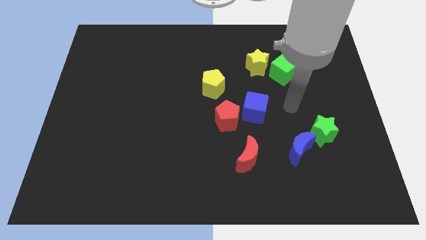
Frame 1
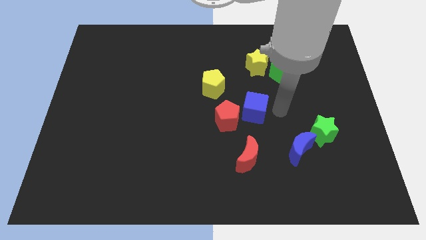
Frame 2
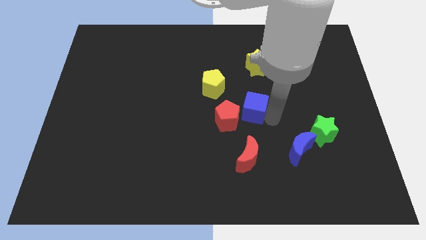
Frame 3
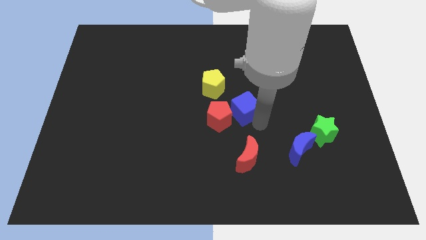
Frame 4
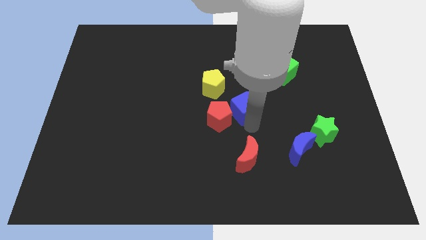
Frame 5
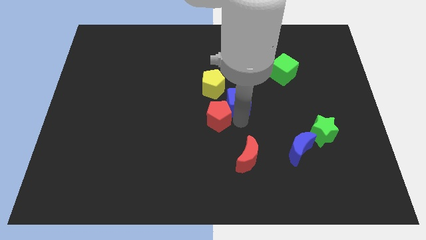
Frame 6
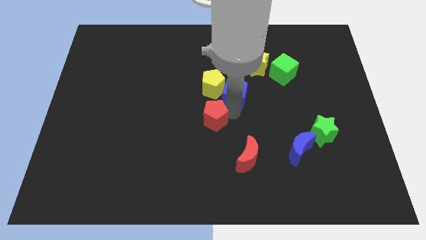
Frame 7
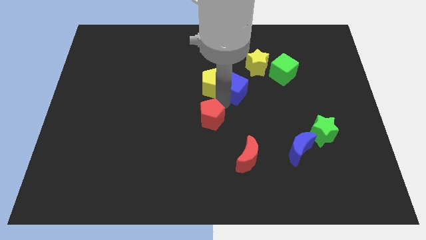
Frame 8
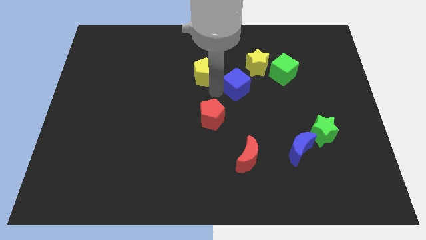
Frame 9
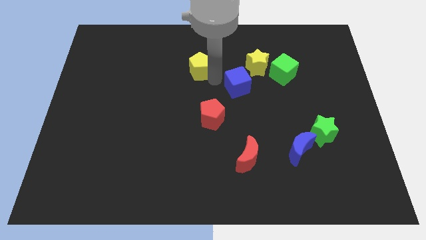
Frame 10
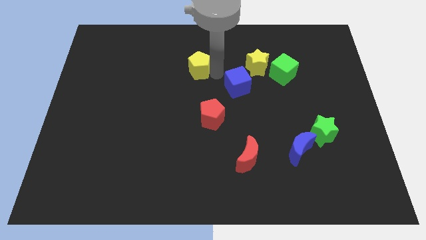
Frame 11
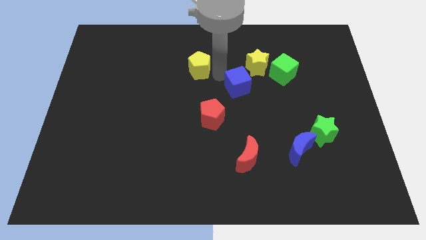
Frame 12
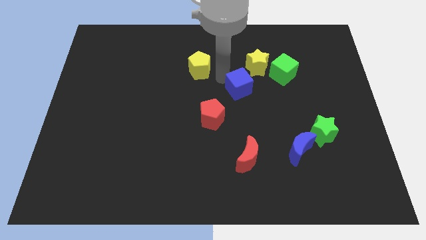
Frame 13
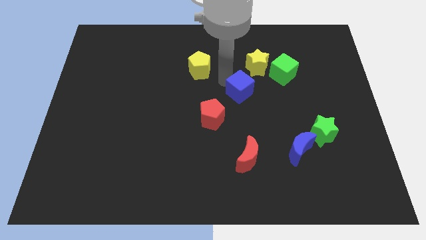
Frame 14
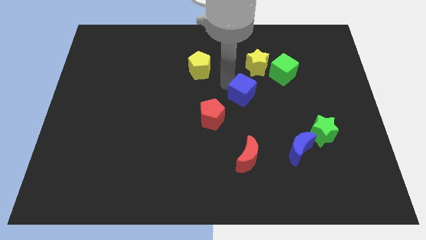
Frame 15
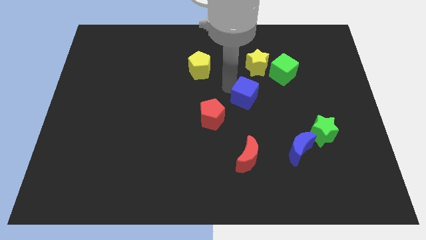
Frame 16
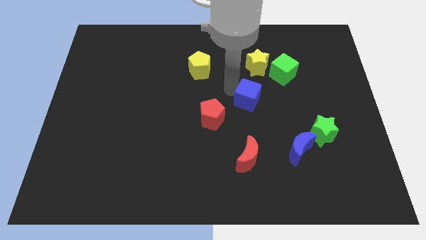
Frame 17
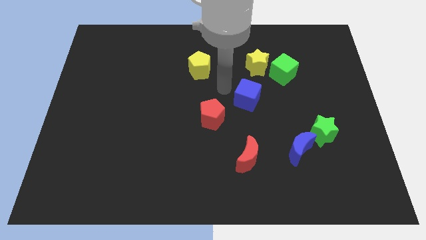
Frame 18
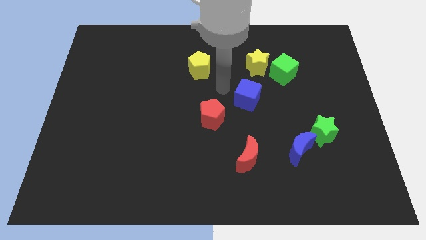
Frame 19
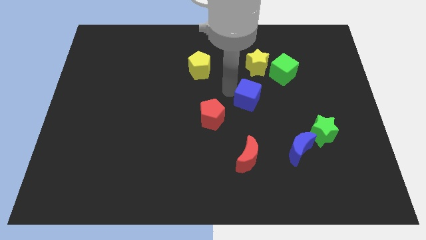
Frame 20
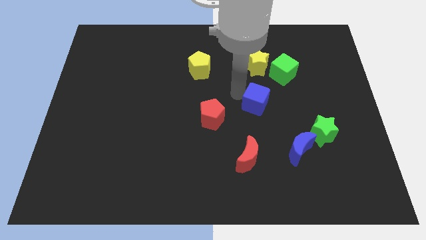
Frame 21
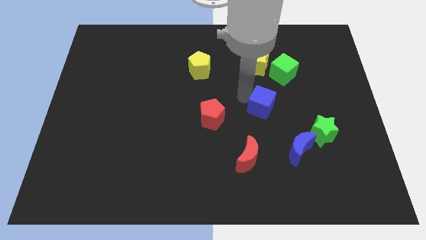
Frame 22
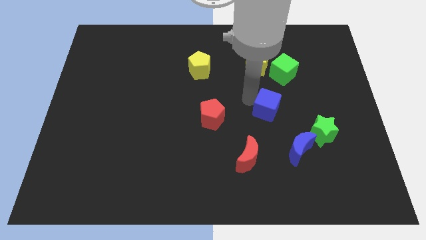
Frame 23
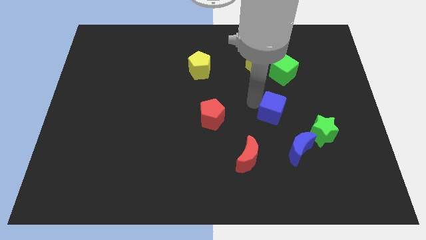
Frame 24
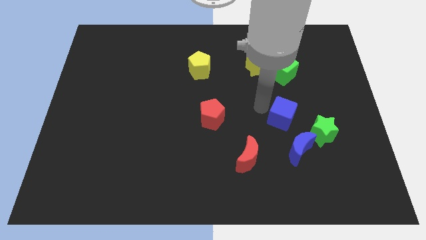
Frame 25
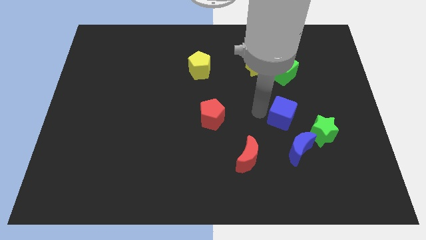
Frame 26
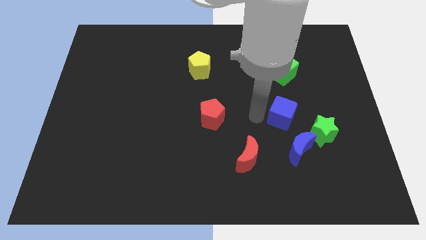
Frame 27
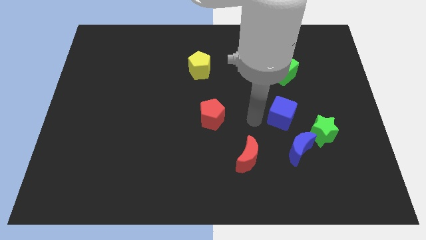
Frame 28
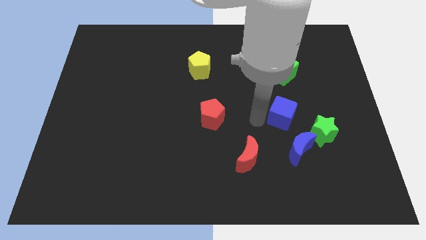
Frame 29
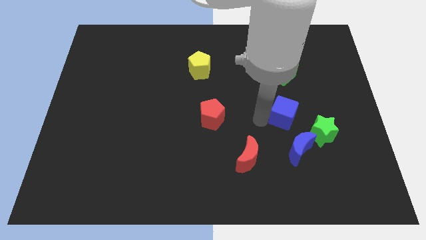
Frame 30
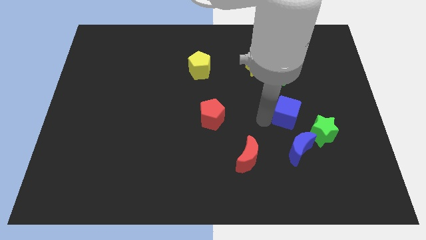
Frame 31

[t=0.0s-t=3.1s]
slide the blue cube slightly right

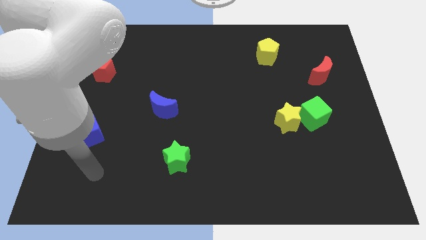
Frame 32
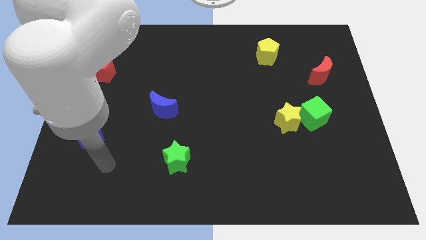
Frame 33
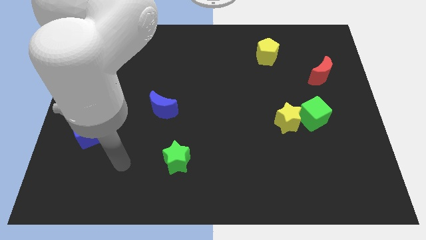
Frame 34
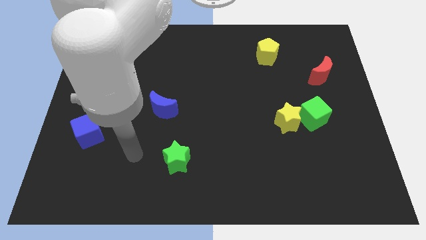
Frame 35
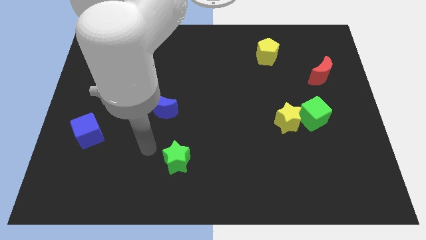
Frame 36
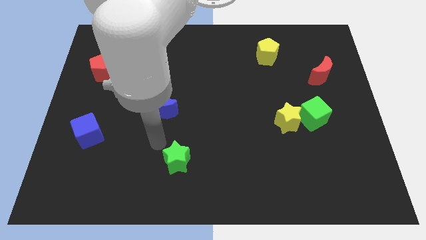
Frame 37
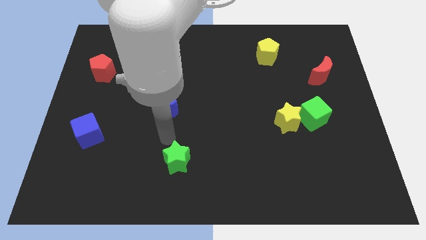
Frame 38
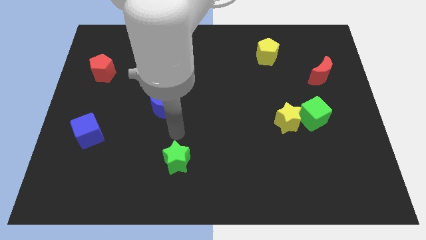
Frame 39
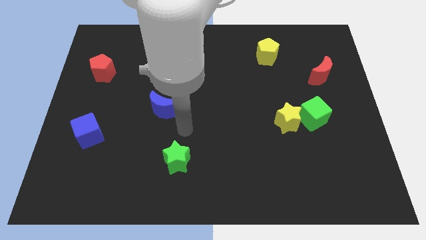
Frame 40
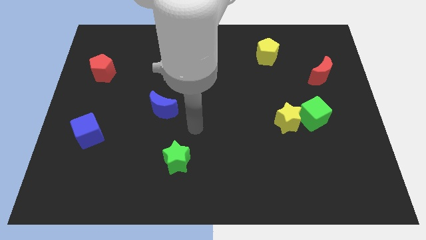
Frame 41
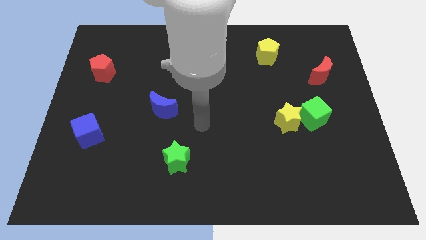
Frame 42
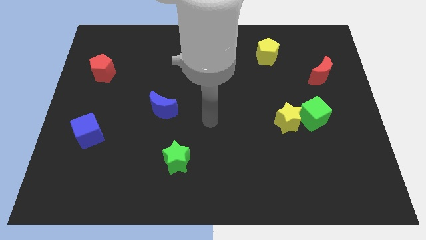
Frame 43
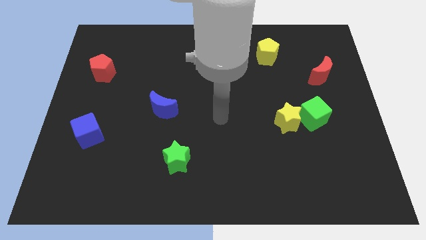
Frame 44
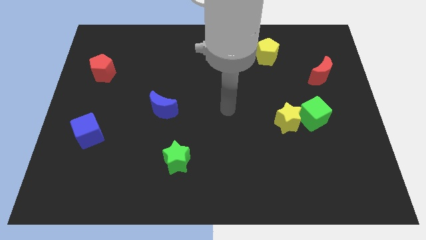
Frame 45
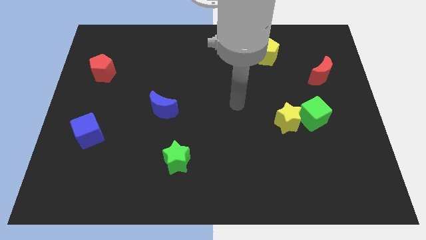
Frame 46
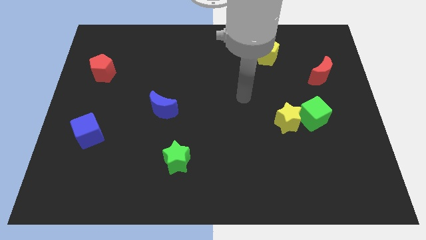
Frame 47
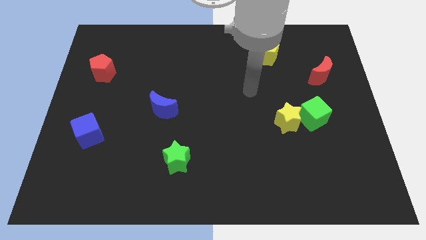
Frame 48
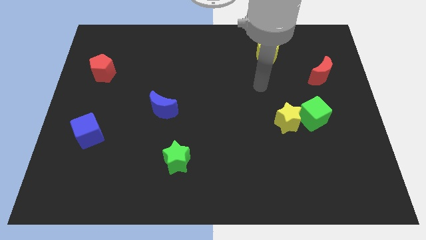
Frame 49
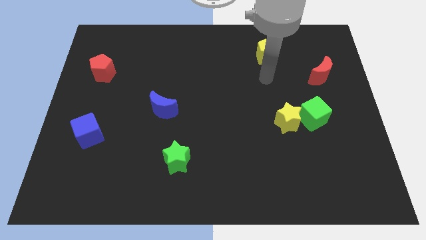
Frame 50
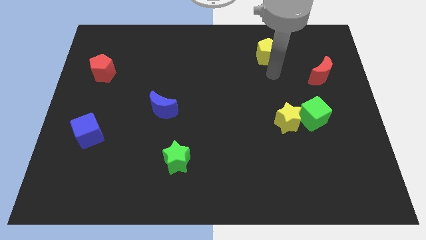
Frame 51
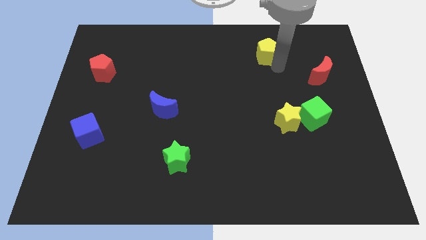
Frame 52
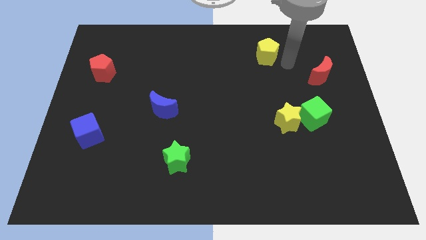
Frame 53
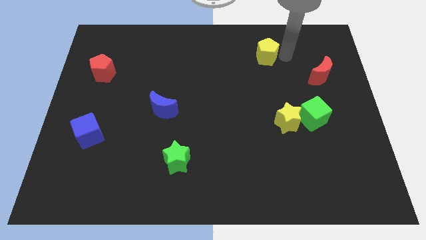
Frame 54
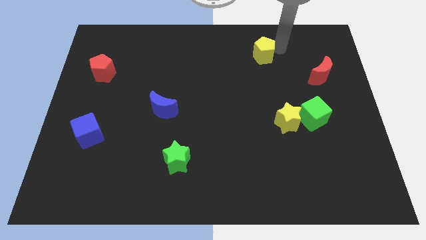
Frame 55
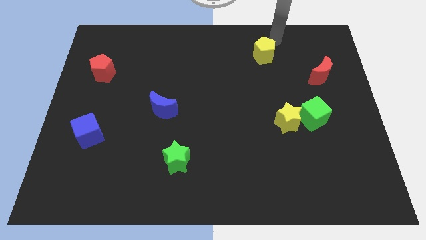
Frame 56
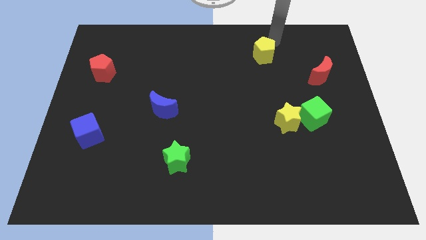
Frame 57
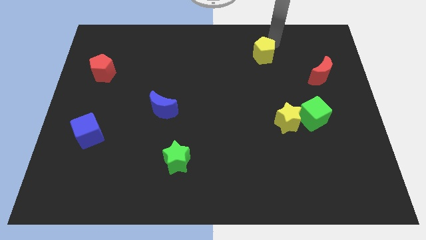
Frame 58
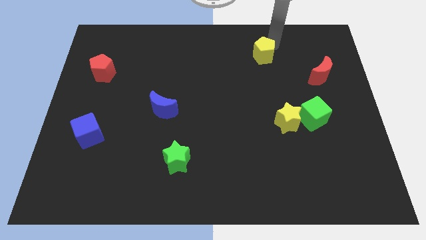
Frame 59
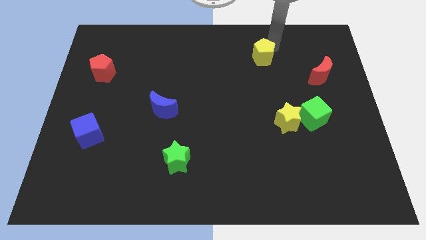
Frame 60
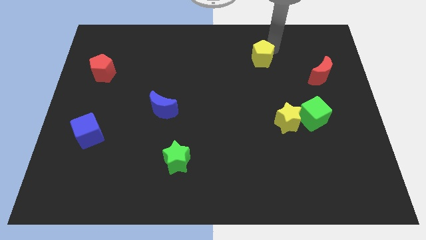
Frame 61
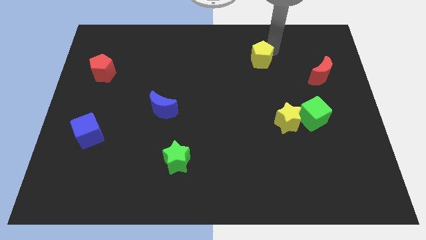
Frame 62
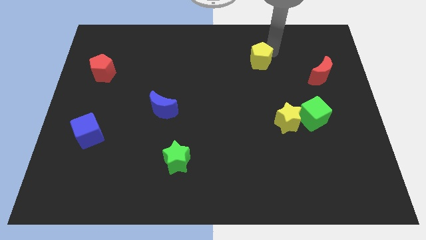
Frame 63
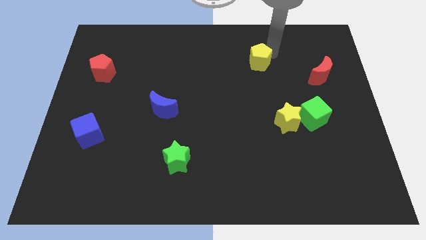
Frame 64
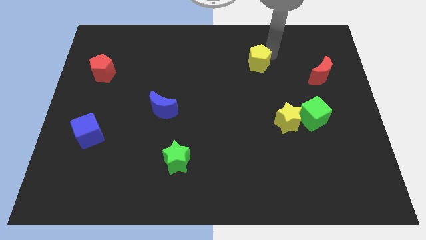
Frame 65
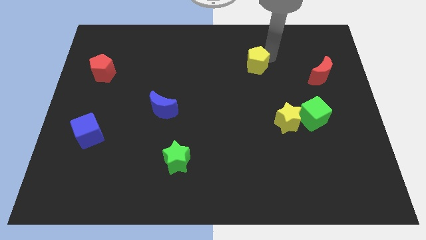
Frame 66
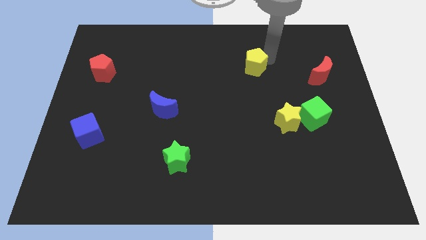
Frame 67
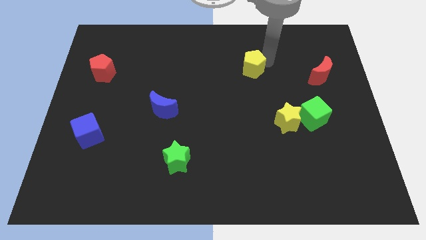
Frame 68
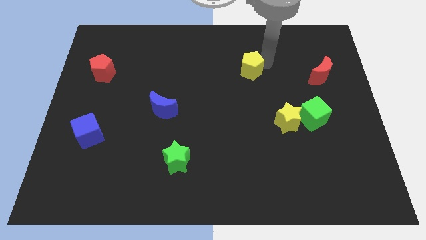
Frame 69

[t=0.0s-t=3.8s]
slide the yellow pentagon a bit diagonally downwards and left

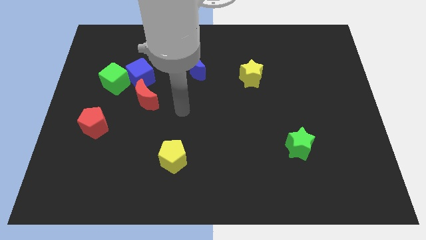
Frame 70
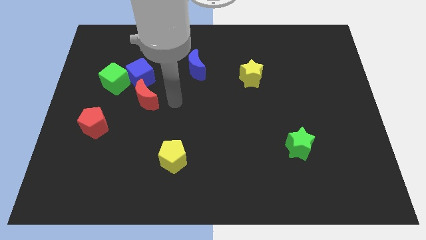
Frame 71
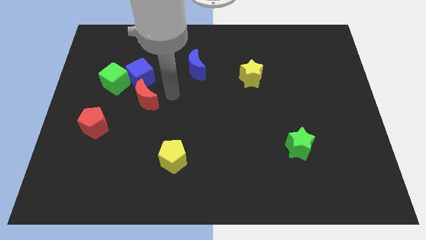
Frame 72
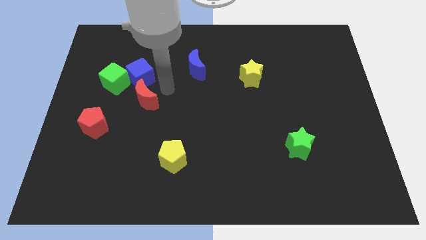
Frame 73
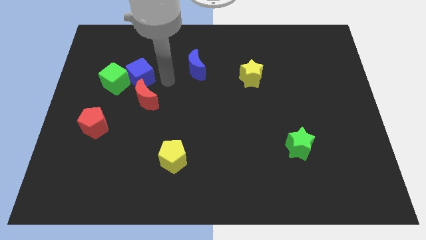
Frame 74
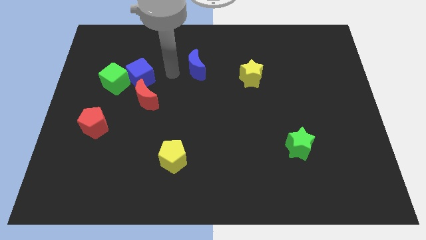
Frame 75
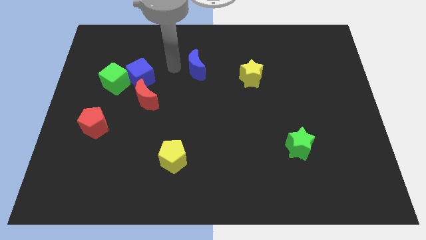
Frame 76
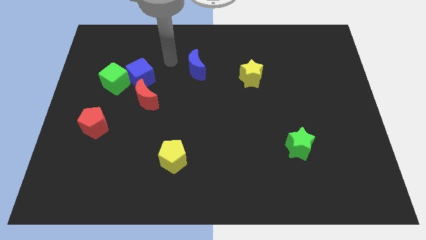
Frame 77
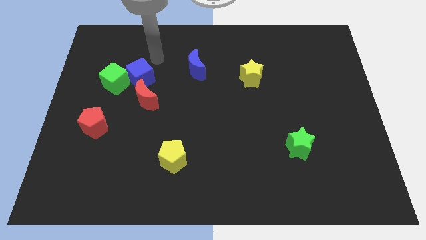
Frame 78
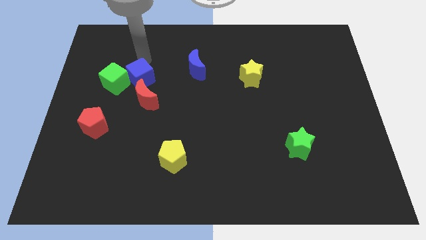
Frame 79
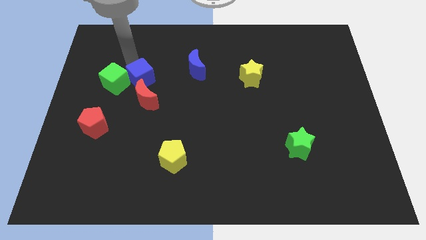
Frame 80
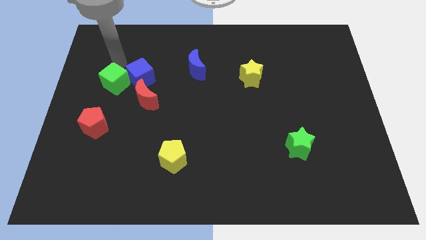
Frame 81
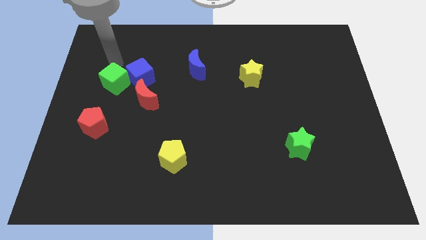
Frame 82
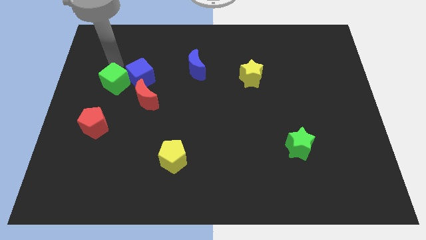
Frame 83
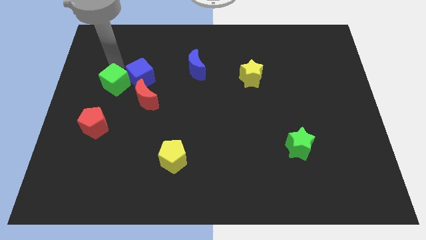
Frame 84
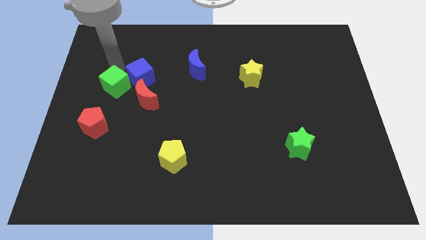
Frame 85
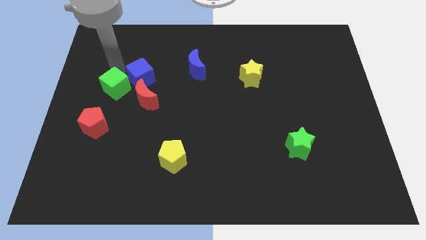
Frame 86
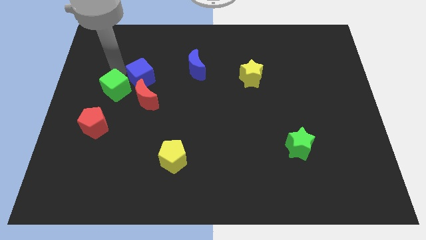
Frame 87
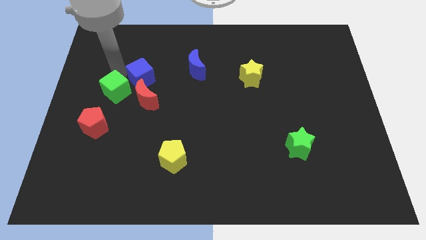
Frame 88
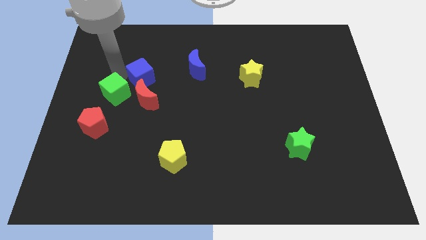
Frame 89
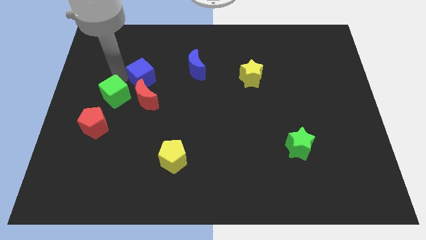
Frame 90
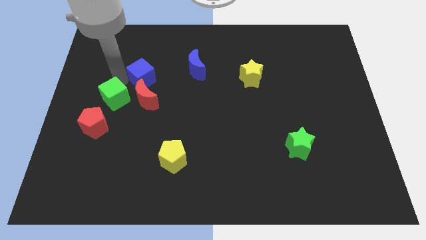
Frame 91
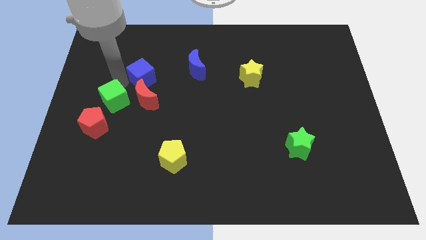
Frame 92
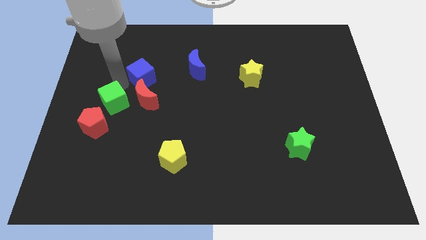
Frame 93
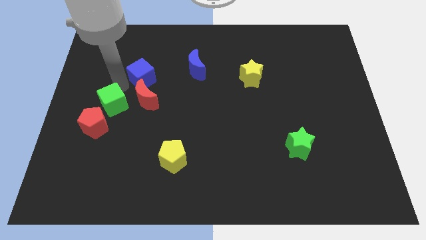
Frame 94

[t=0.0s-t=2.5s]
slightly slide the green cube down
